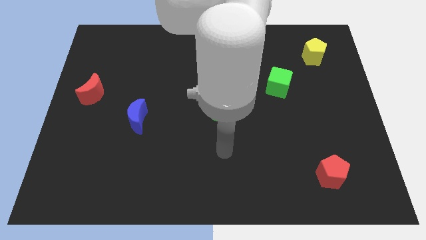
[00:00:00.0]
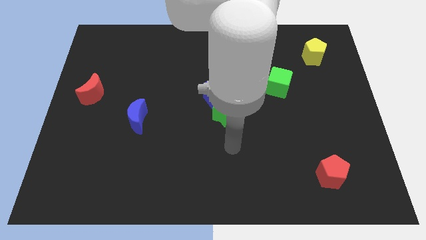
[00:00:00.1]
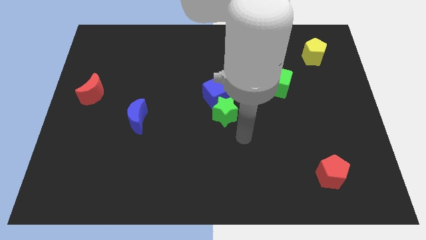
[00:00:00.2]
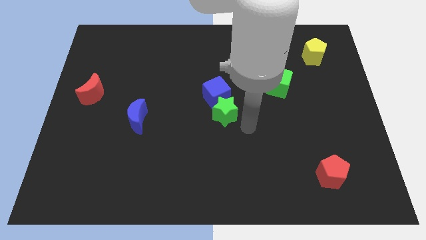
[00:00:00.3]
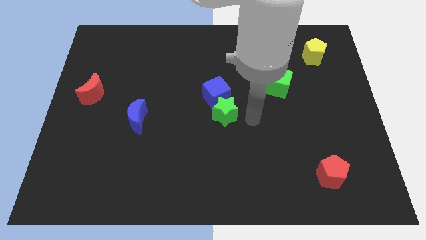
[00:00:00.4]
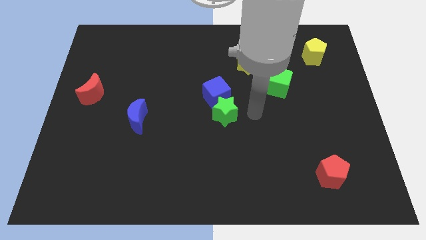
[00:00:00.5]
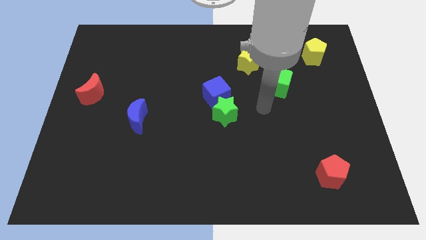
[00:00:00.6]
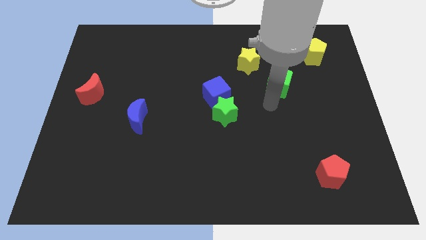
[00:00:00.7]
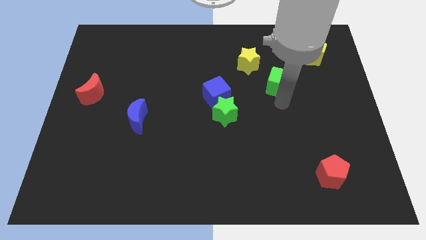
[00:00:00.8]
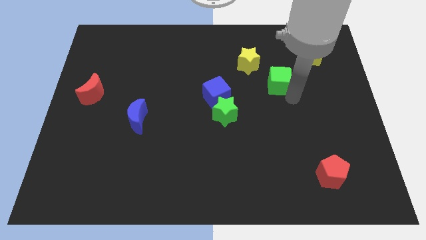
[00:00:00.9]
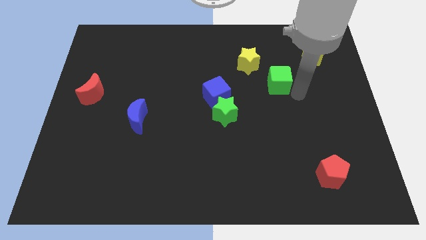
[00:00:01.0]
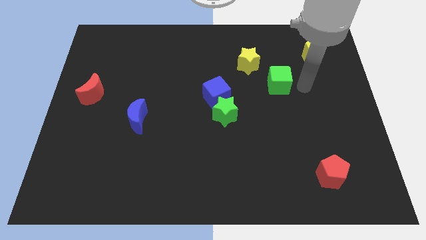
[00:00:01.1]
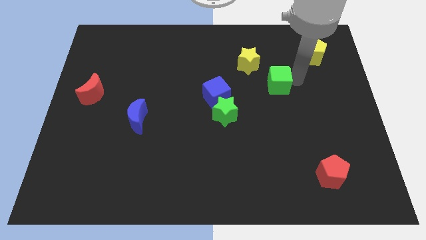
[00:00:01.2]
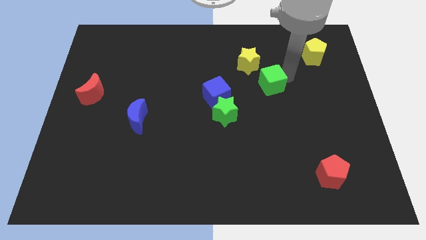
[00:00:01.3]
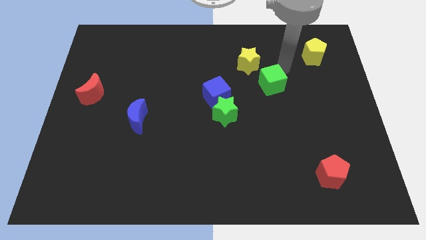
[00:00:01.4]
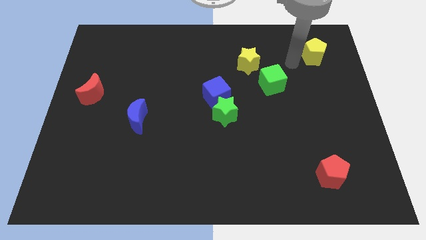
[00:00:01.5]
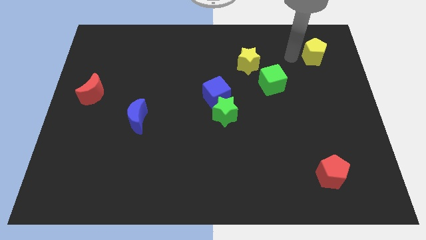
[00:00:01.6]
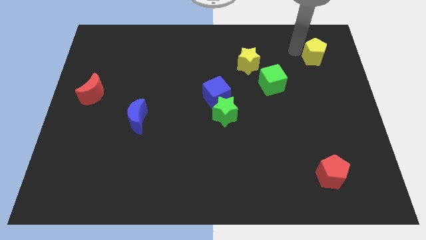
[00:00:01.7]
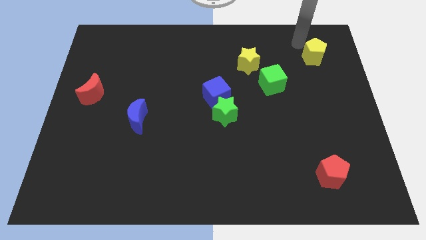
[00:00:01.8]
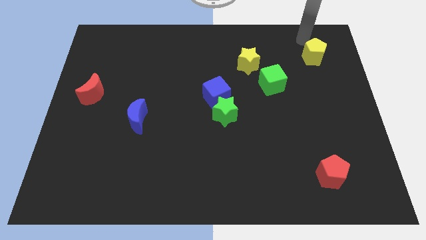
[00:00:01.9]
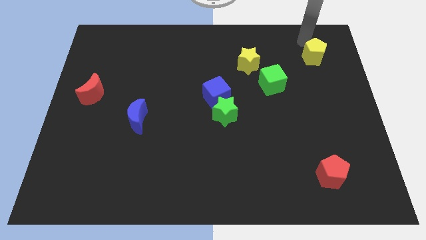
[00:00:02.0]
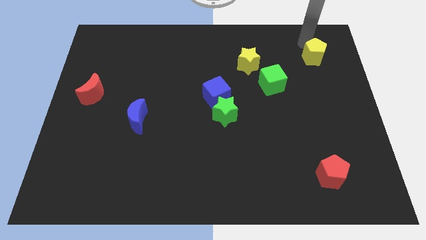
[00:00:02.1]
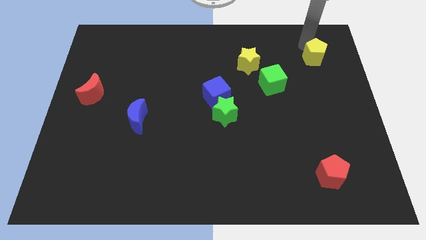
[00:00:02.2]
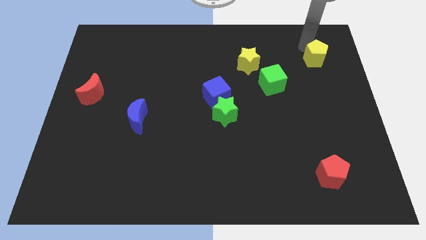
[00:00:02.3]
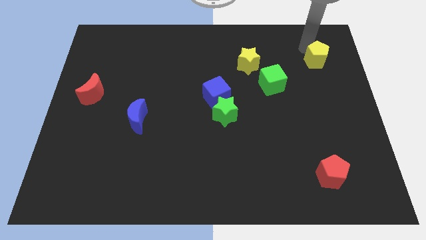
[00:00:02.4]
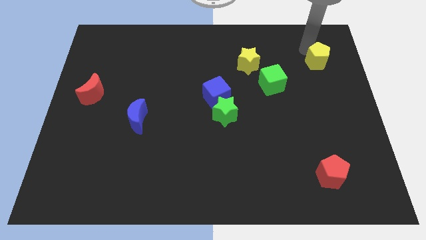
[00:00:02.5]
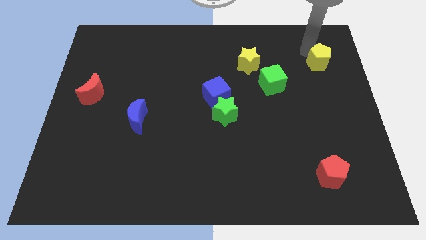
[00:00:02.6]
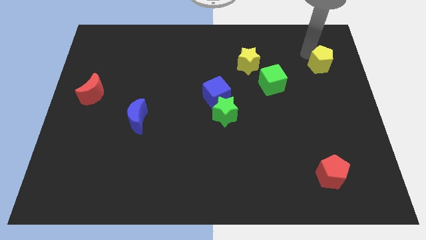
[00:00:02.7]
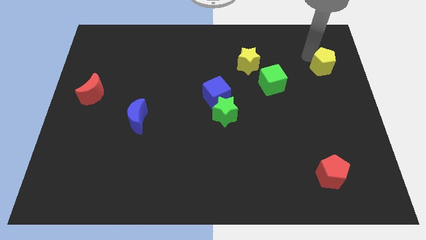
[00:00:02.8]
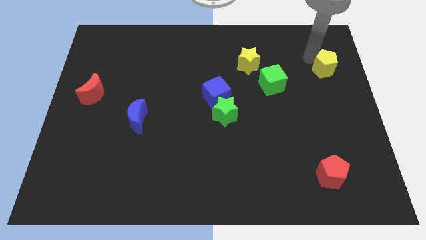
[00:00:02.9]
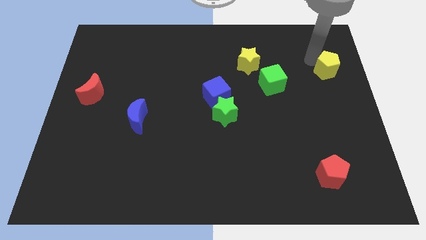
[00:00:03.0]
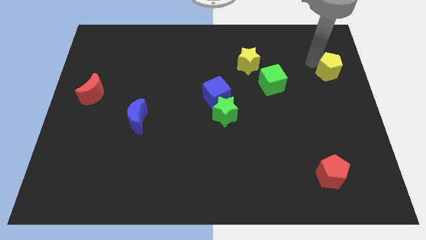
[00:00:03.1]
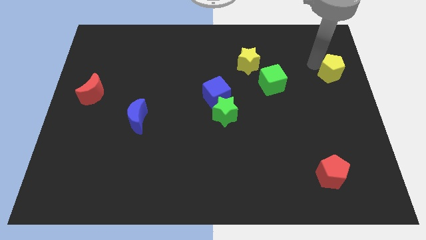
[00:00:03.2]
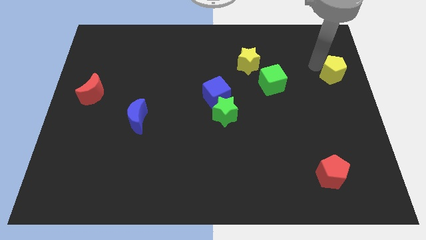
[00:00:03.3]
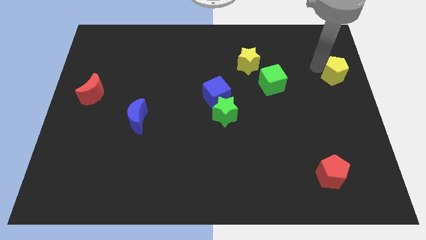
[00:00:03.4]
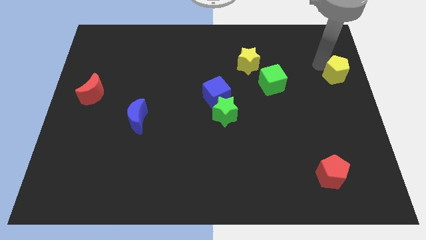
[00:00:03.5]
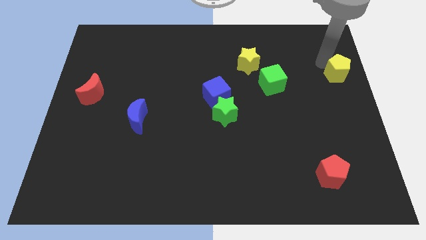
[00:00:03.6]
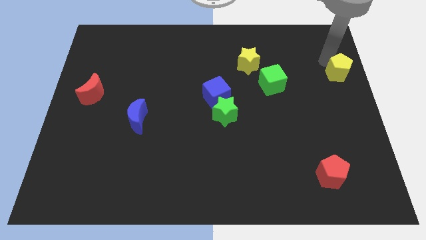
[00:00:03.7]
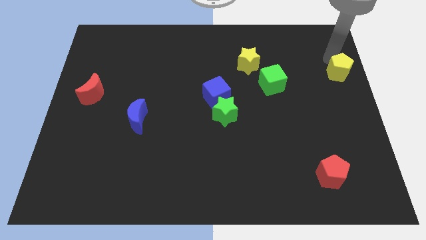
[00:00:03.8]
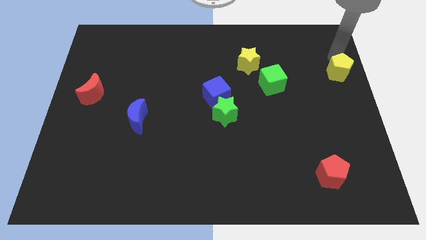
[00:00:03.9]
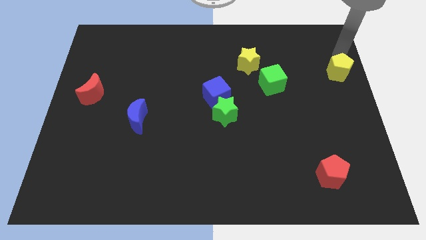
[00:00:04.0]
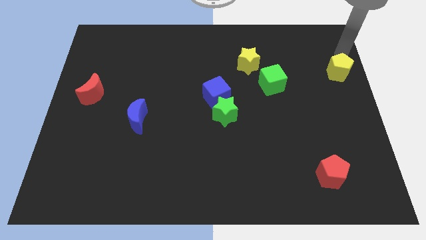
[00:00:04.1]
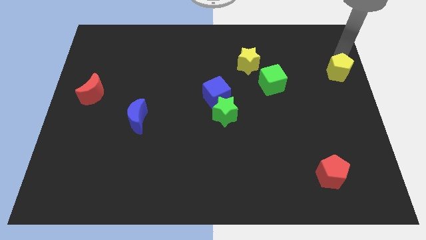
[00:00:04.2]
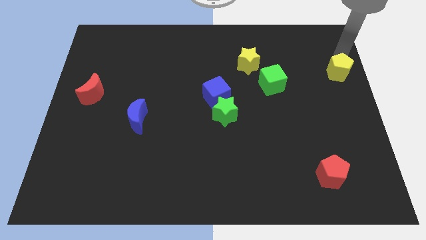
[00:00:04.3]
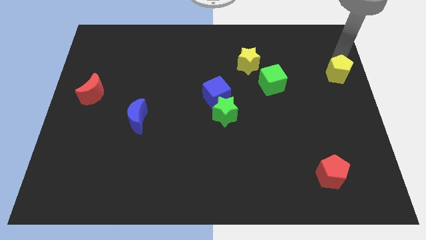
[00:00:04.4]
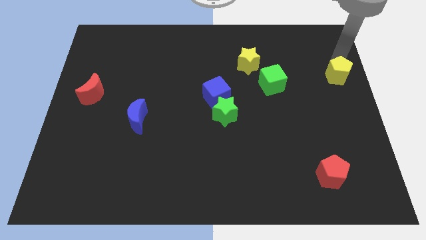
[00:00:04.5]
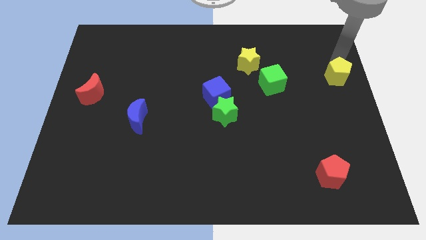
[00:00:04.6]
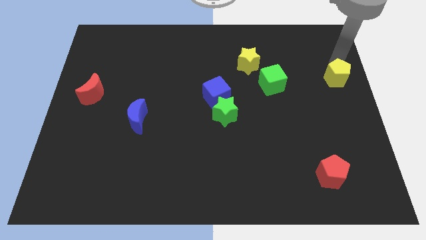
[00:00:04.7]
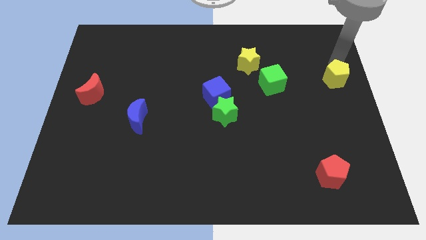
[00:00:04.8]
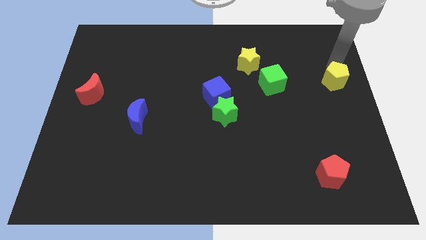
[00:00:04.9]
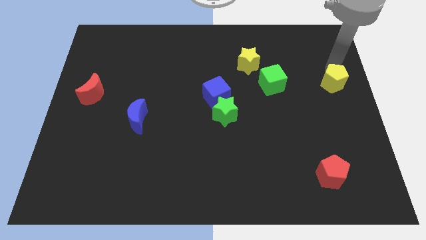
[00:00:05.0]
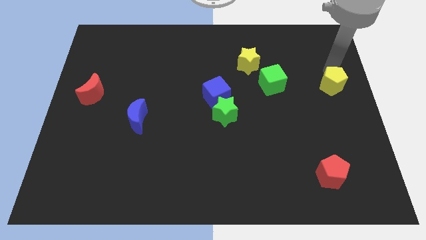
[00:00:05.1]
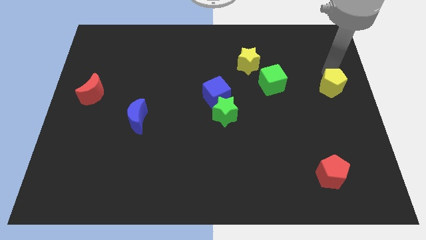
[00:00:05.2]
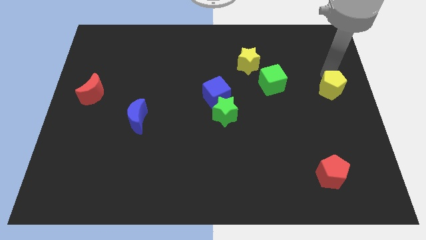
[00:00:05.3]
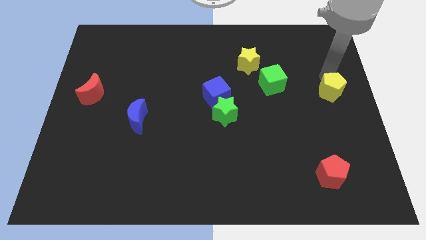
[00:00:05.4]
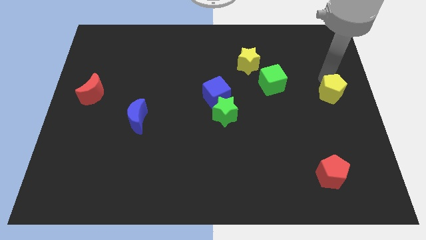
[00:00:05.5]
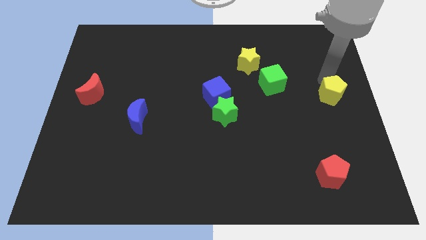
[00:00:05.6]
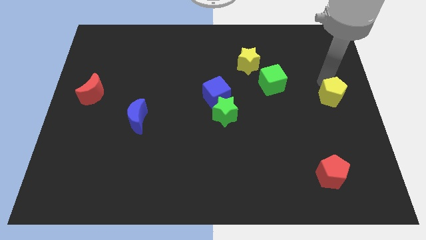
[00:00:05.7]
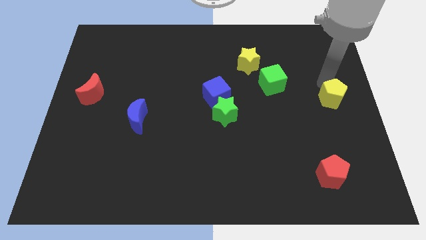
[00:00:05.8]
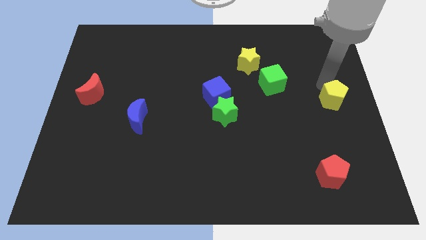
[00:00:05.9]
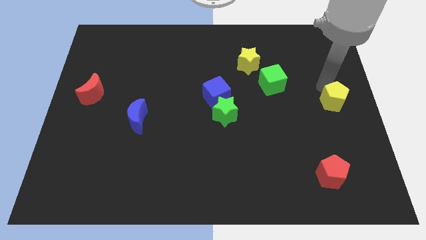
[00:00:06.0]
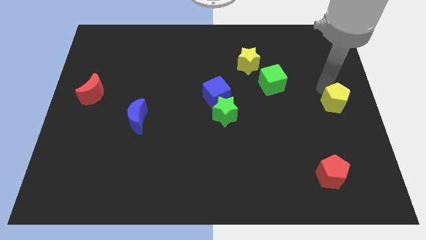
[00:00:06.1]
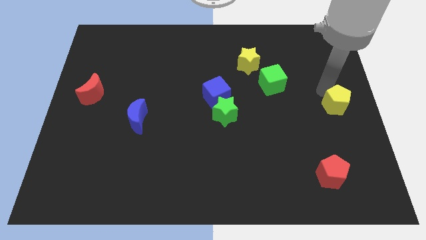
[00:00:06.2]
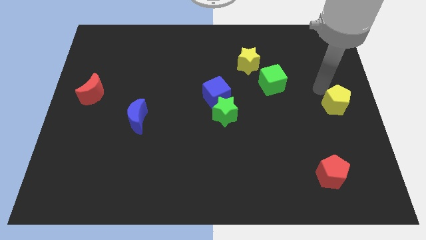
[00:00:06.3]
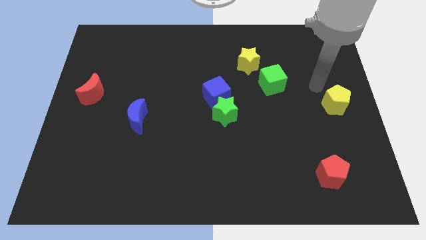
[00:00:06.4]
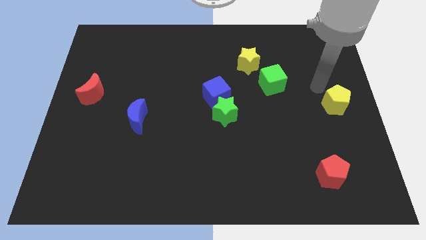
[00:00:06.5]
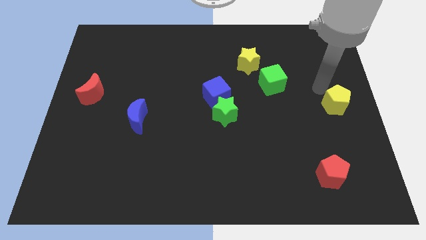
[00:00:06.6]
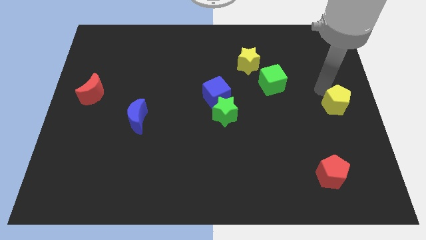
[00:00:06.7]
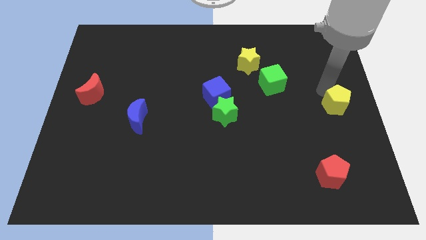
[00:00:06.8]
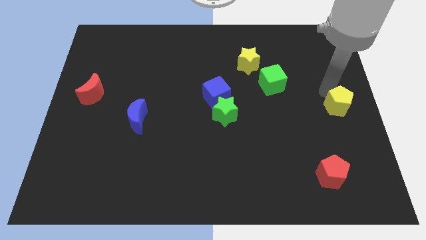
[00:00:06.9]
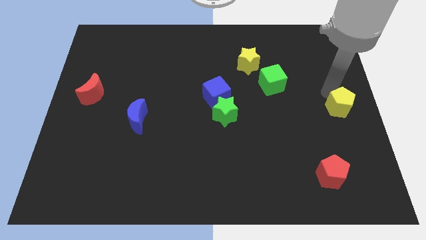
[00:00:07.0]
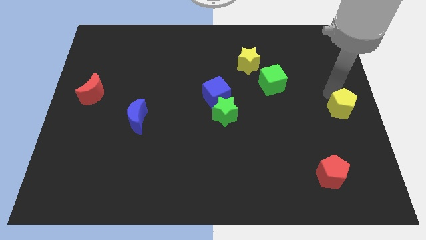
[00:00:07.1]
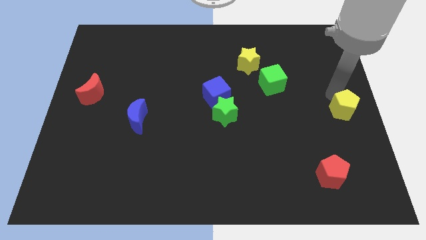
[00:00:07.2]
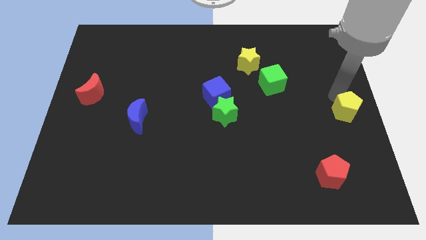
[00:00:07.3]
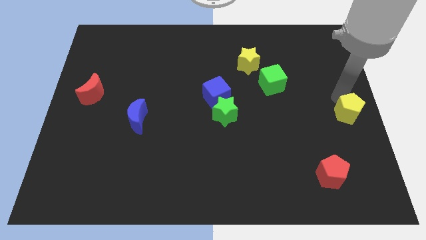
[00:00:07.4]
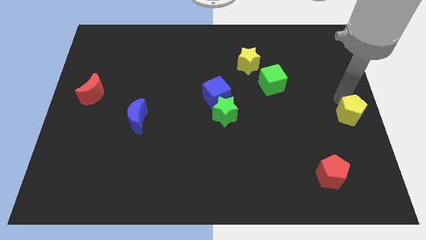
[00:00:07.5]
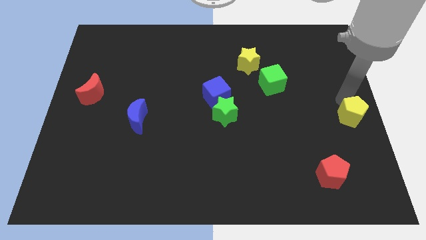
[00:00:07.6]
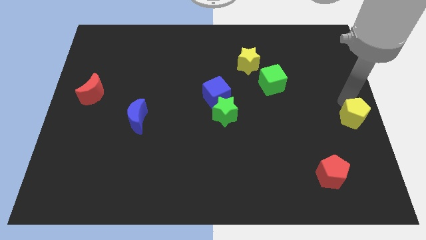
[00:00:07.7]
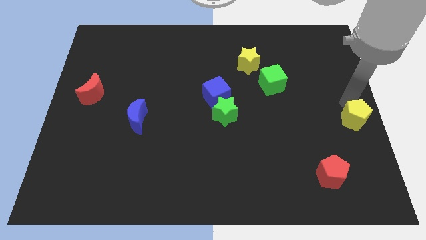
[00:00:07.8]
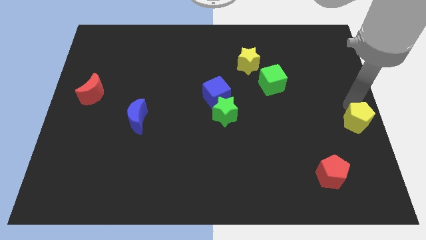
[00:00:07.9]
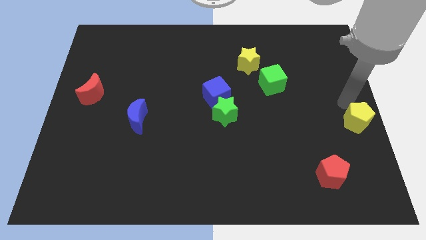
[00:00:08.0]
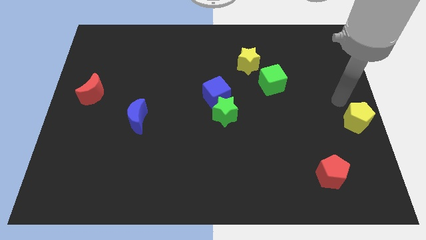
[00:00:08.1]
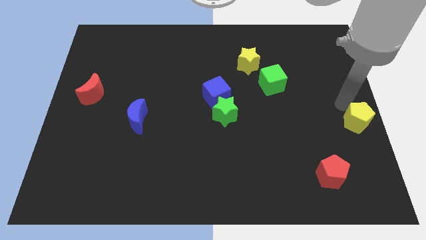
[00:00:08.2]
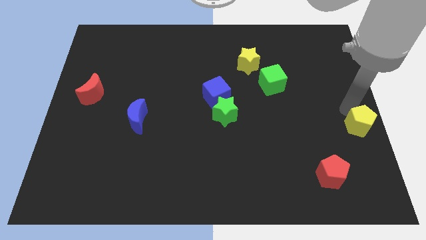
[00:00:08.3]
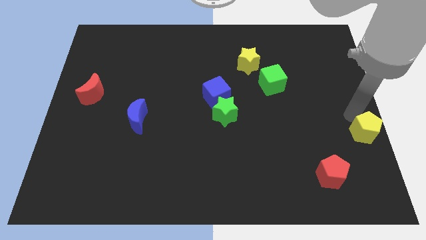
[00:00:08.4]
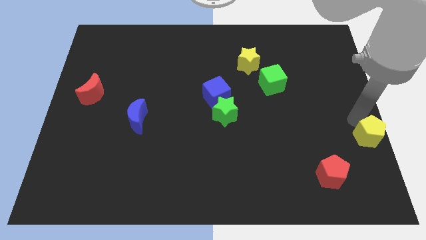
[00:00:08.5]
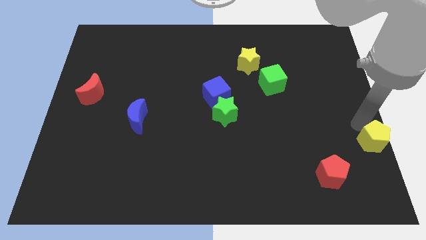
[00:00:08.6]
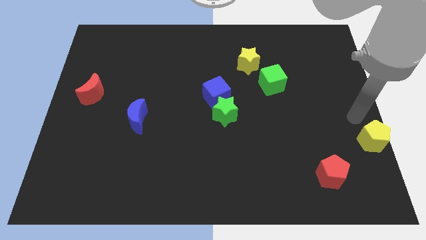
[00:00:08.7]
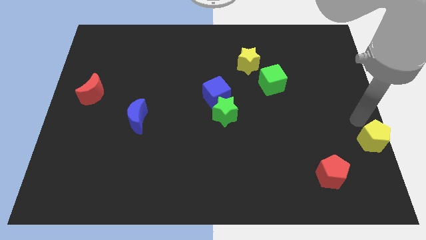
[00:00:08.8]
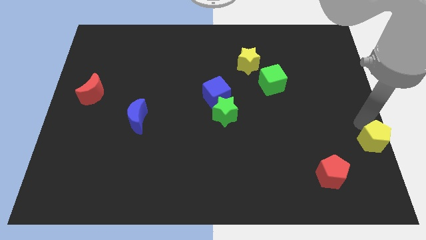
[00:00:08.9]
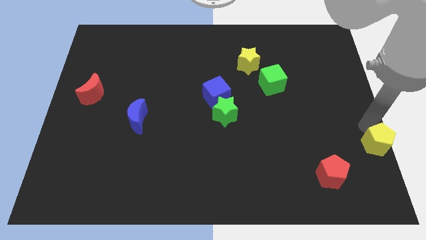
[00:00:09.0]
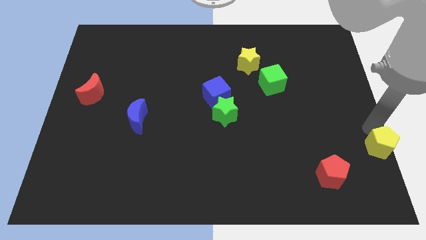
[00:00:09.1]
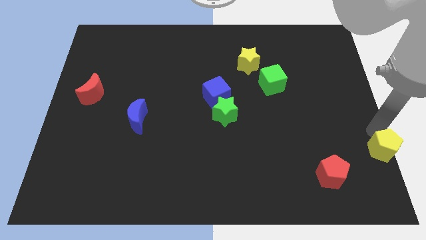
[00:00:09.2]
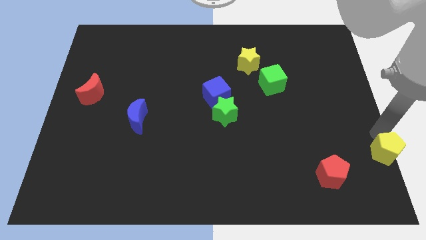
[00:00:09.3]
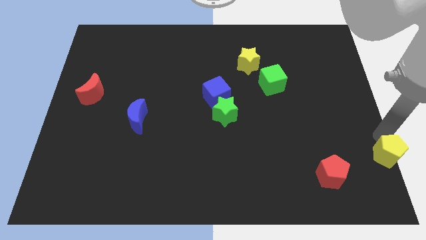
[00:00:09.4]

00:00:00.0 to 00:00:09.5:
slide the yellow pentagon to the lower right corner
